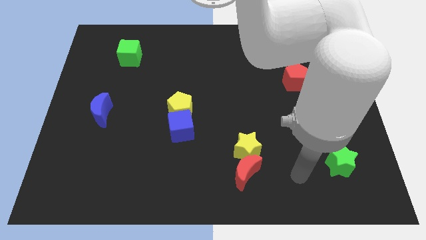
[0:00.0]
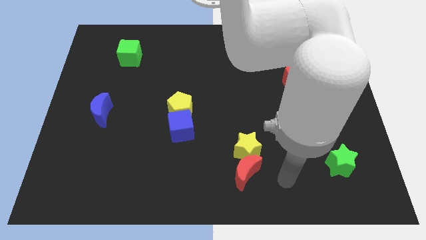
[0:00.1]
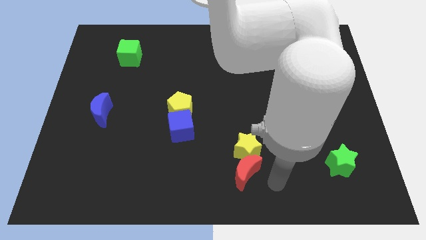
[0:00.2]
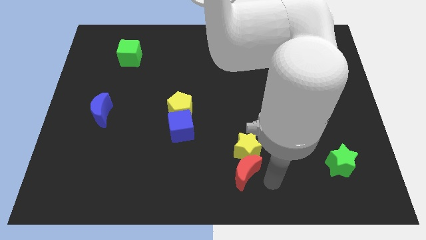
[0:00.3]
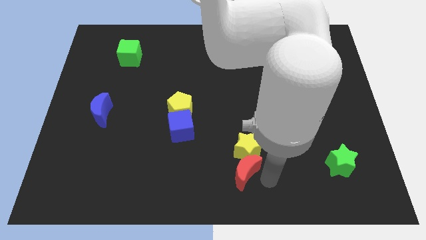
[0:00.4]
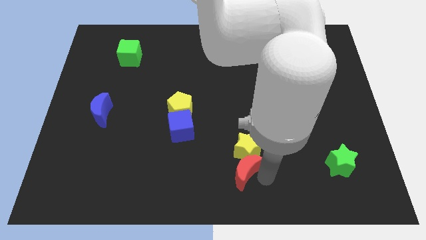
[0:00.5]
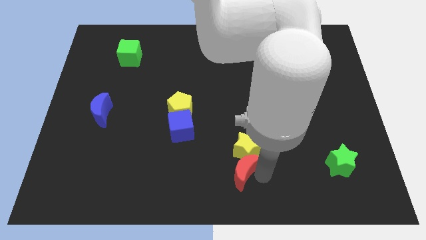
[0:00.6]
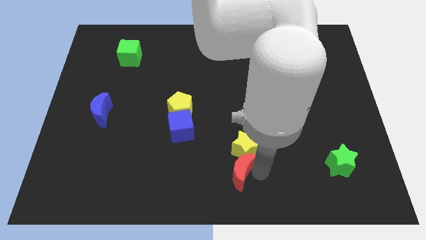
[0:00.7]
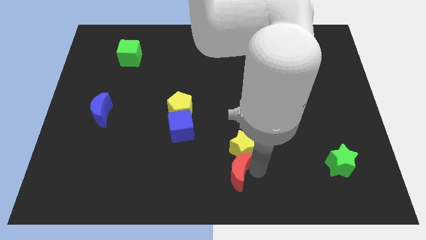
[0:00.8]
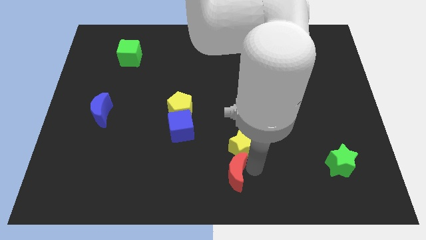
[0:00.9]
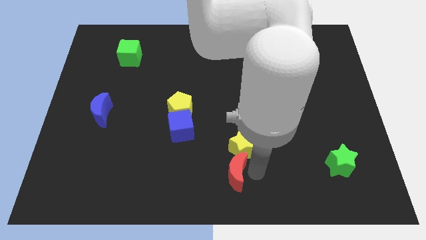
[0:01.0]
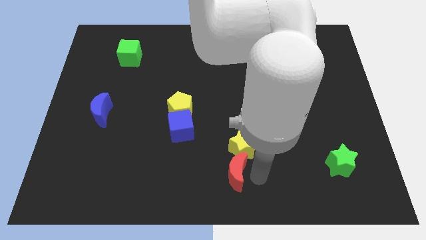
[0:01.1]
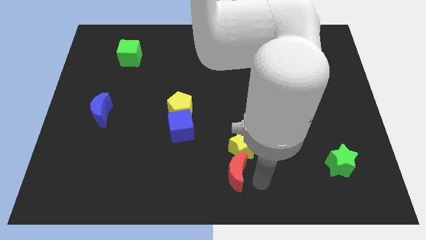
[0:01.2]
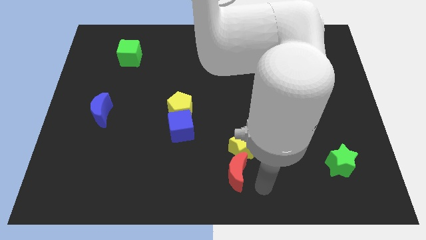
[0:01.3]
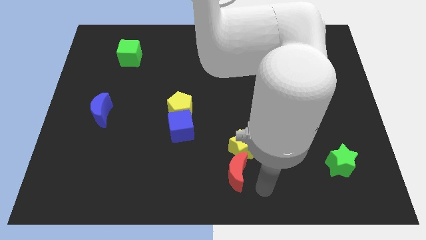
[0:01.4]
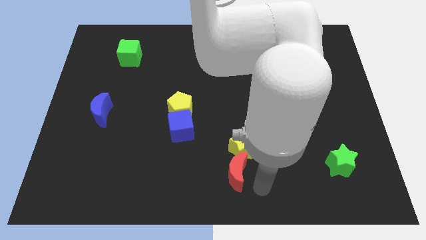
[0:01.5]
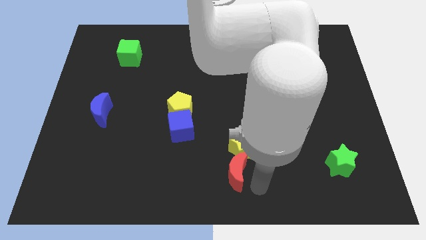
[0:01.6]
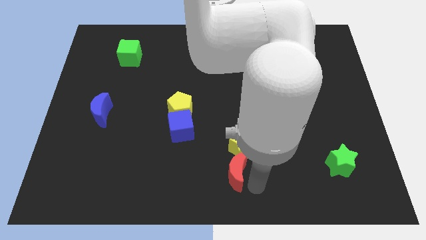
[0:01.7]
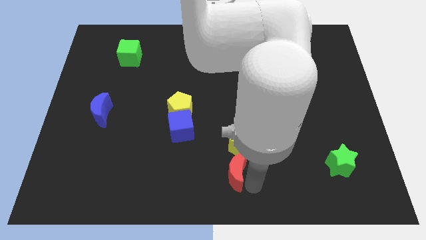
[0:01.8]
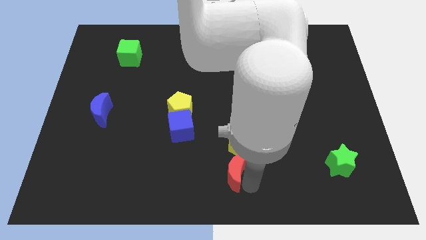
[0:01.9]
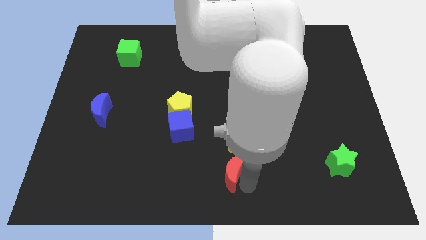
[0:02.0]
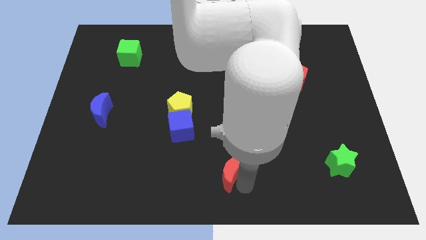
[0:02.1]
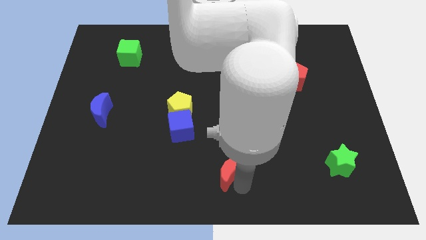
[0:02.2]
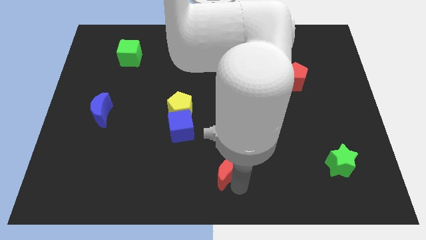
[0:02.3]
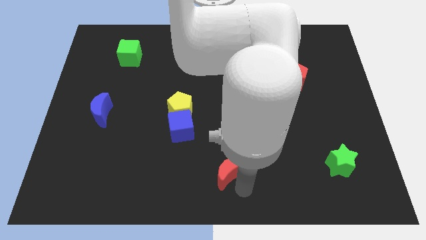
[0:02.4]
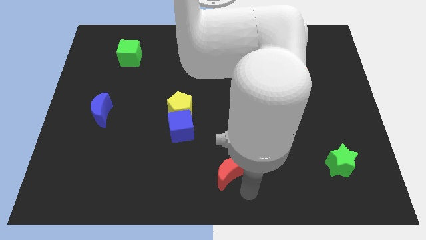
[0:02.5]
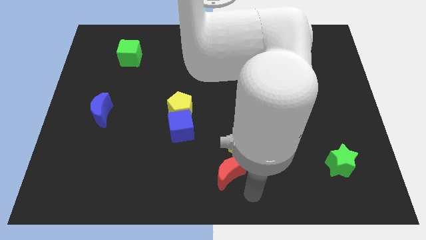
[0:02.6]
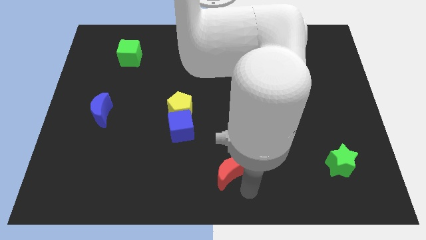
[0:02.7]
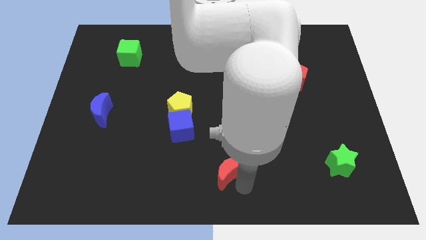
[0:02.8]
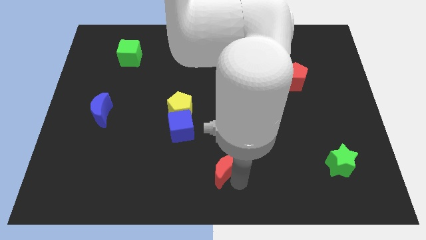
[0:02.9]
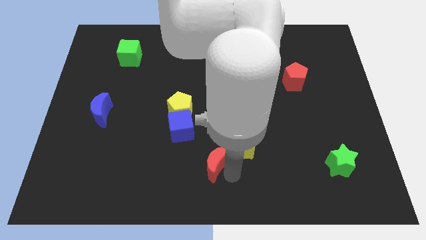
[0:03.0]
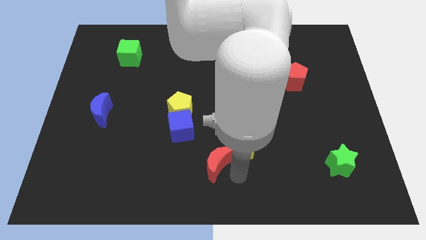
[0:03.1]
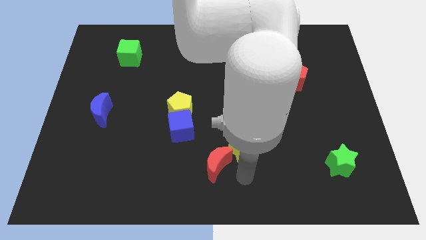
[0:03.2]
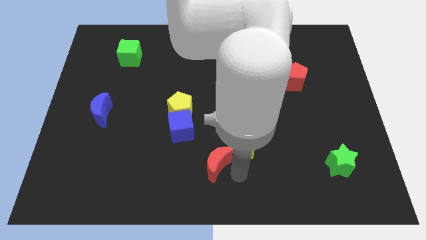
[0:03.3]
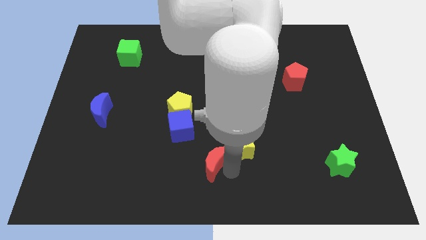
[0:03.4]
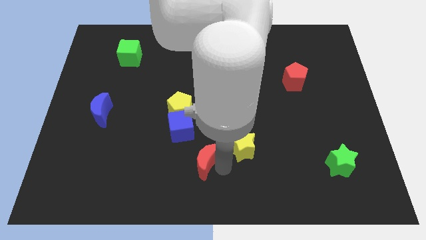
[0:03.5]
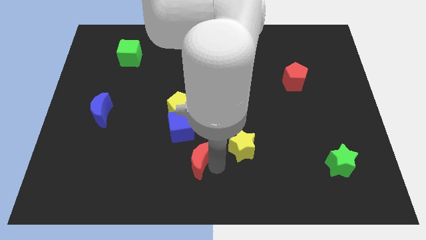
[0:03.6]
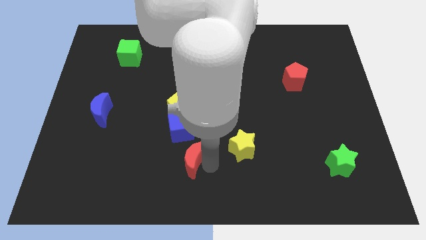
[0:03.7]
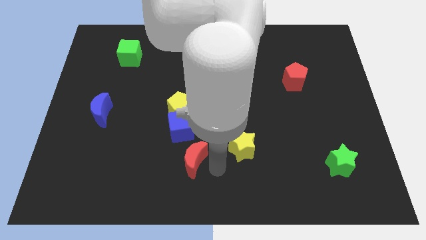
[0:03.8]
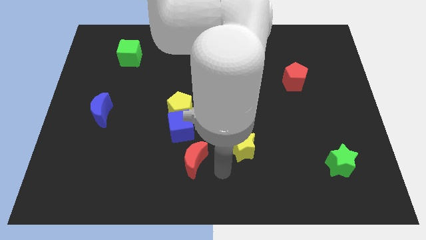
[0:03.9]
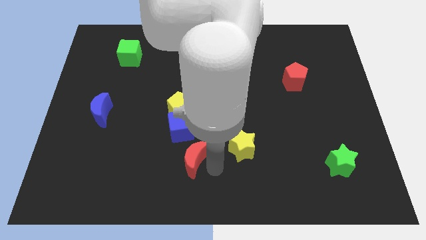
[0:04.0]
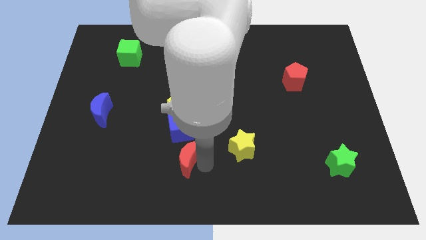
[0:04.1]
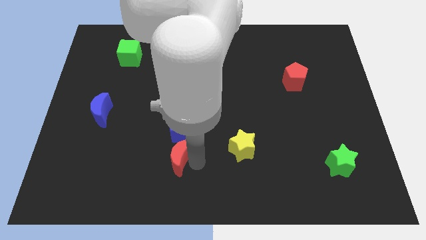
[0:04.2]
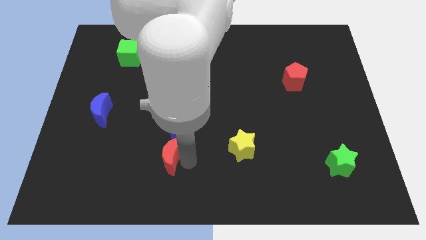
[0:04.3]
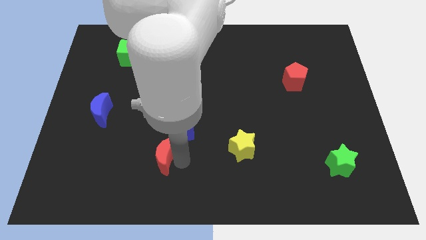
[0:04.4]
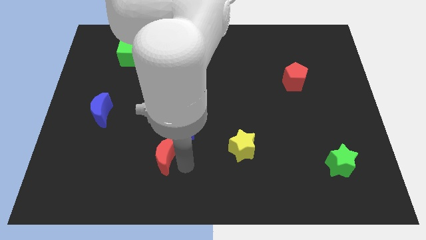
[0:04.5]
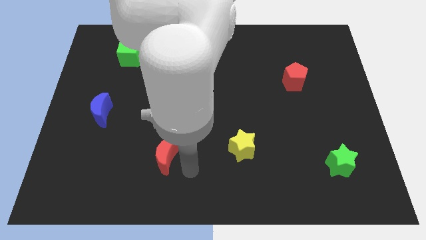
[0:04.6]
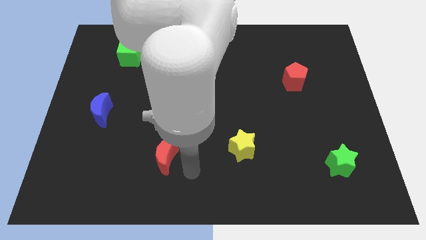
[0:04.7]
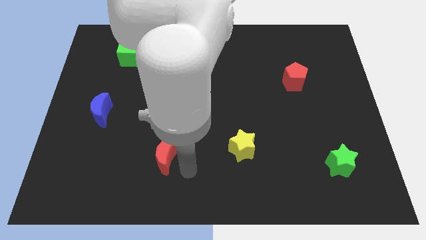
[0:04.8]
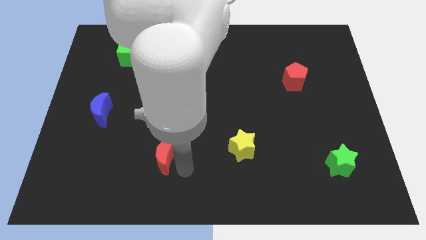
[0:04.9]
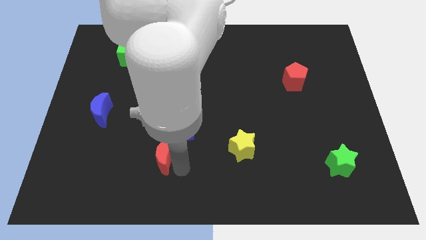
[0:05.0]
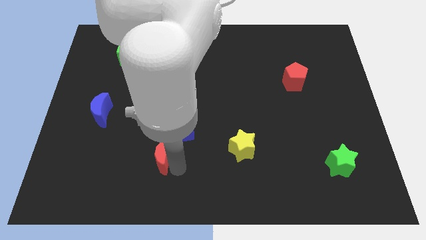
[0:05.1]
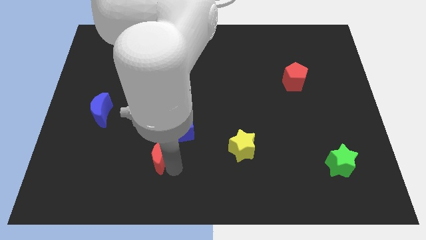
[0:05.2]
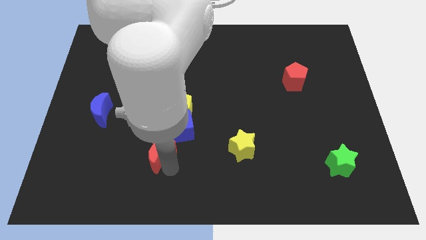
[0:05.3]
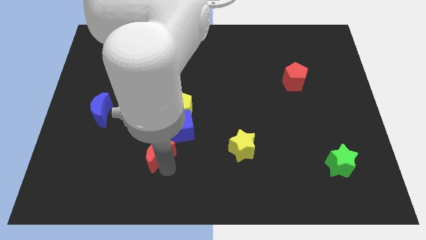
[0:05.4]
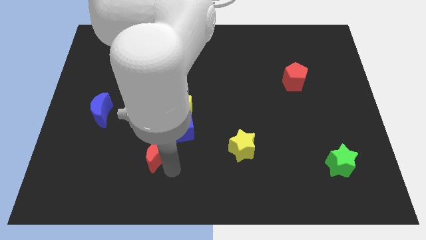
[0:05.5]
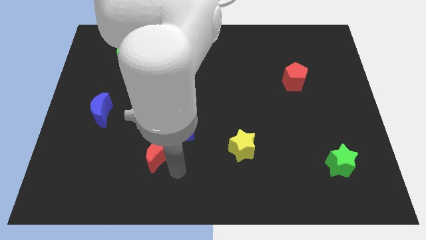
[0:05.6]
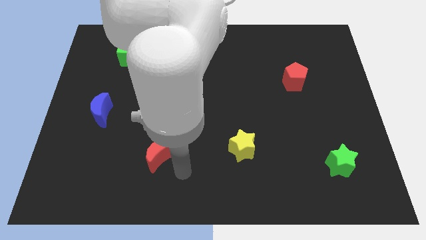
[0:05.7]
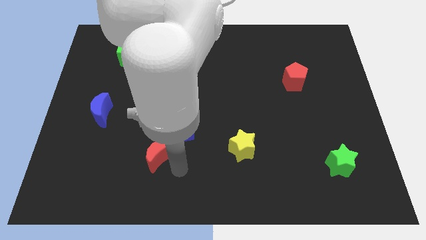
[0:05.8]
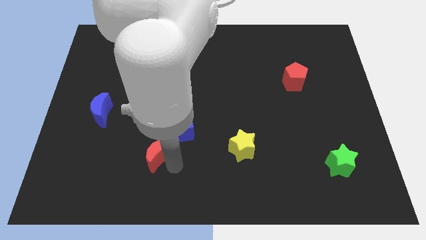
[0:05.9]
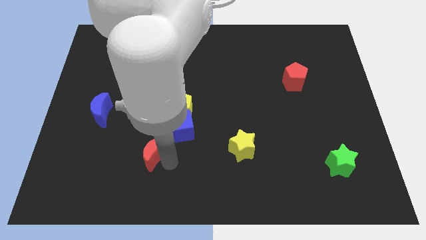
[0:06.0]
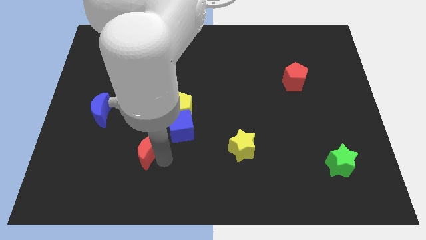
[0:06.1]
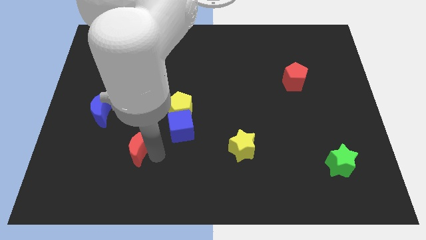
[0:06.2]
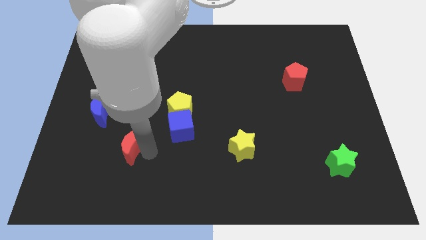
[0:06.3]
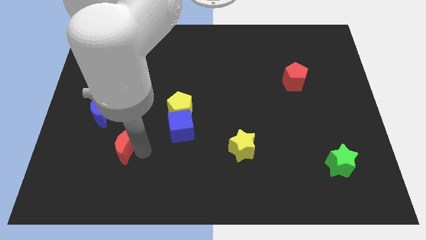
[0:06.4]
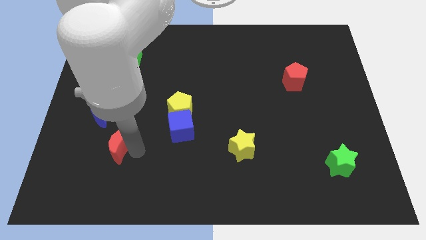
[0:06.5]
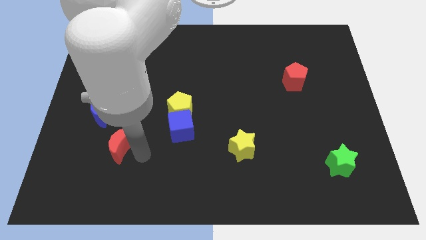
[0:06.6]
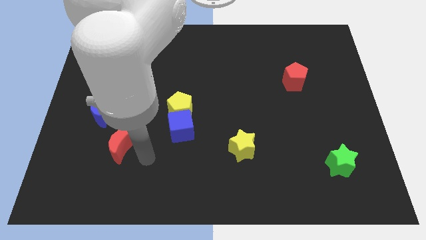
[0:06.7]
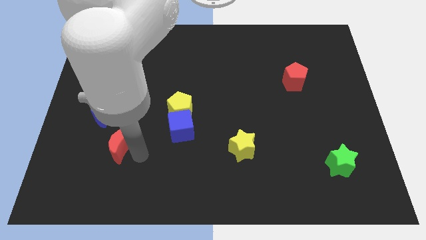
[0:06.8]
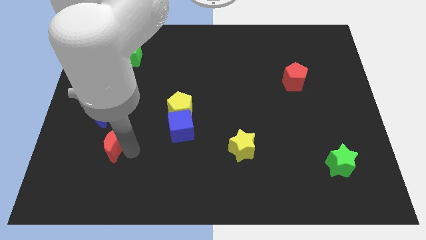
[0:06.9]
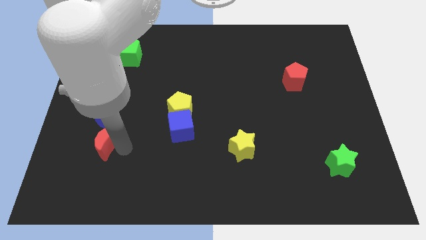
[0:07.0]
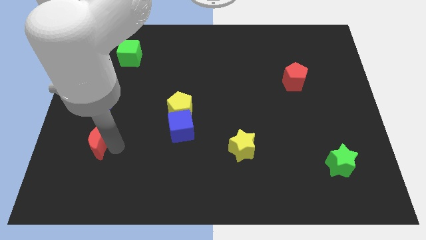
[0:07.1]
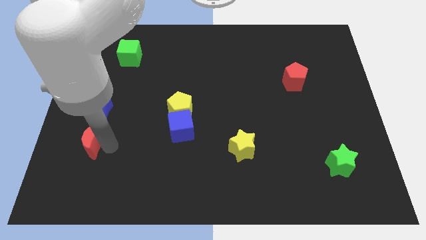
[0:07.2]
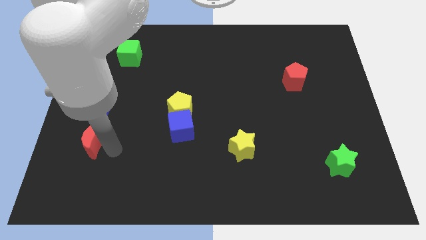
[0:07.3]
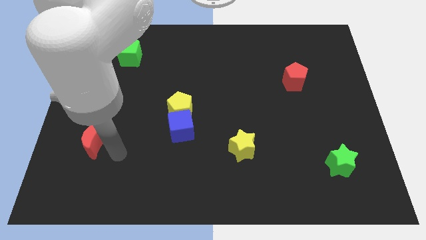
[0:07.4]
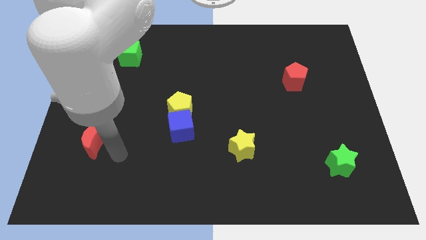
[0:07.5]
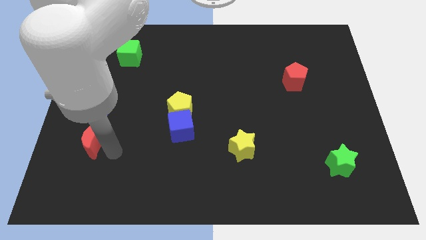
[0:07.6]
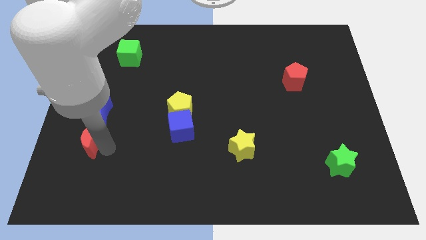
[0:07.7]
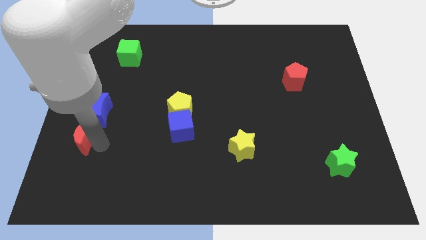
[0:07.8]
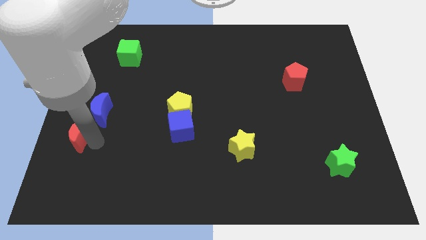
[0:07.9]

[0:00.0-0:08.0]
move the red moon to the left side
